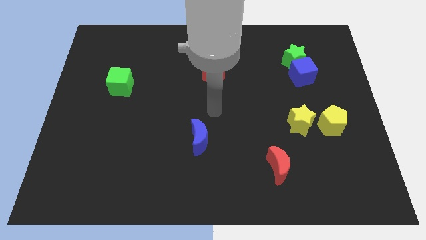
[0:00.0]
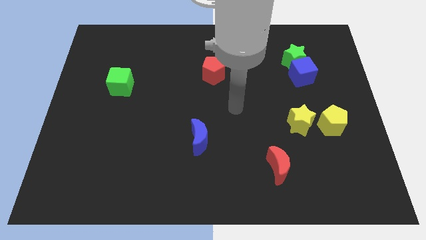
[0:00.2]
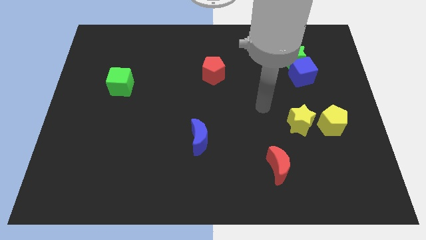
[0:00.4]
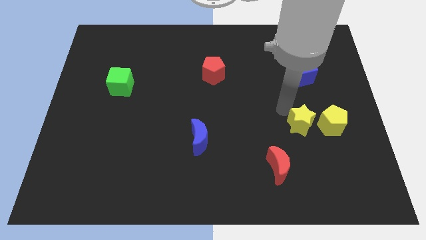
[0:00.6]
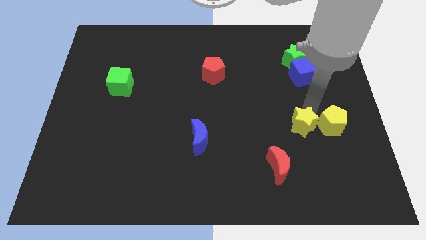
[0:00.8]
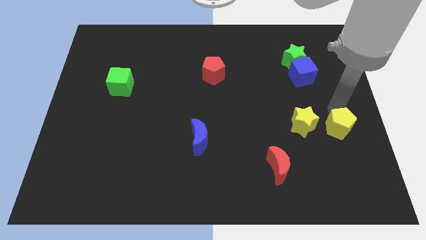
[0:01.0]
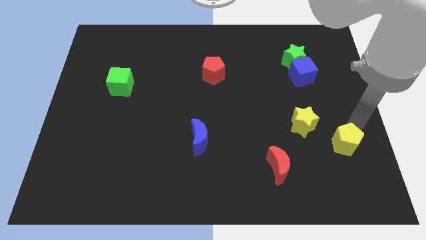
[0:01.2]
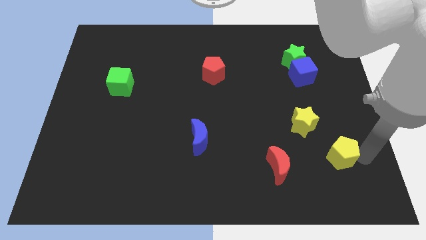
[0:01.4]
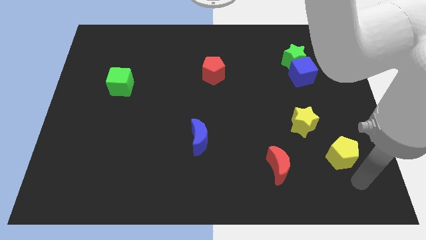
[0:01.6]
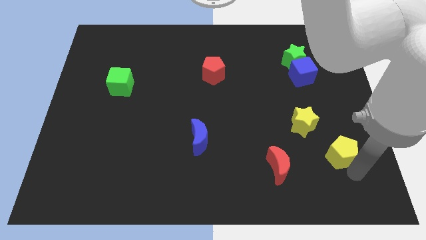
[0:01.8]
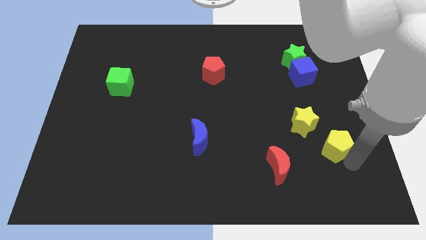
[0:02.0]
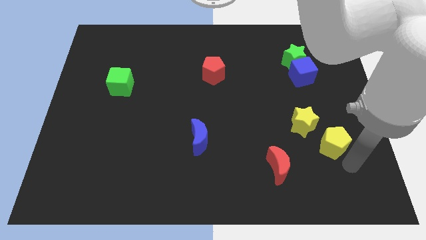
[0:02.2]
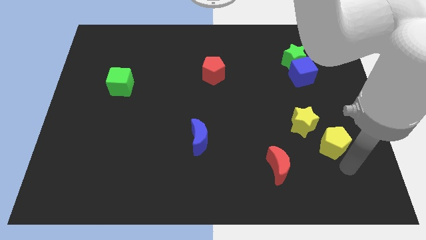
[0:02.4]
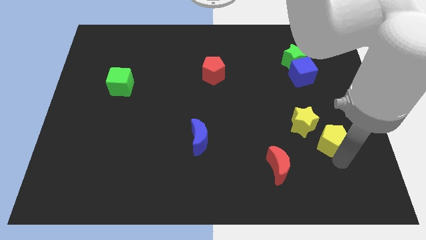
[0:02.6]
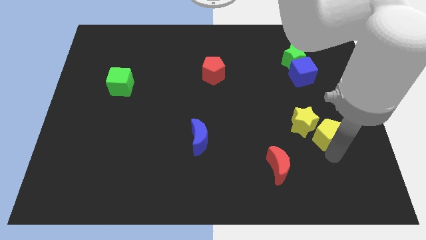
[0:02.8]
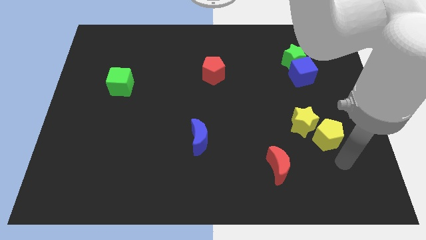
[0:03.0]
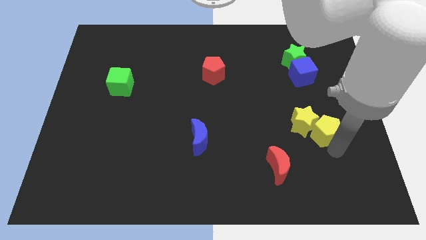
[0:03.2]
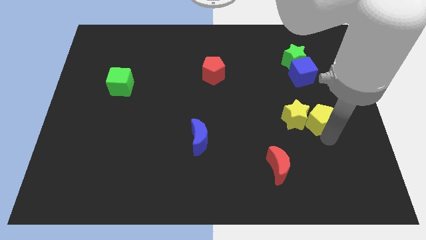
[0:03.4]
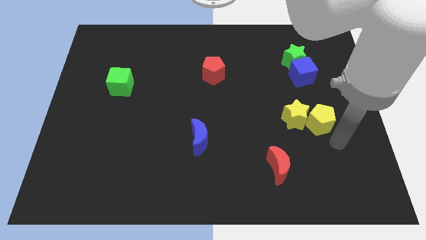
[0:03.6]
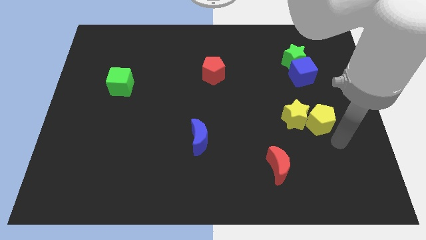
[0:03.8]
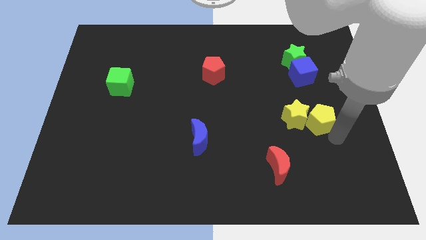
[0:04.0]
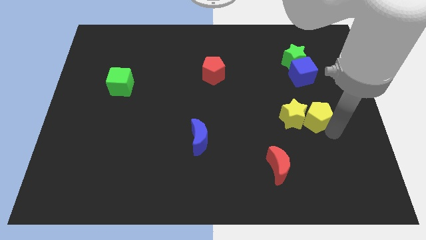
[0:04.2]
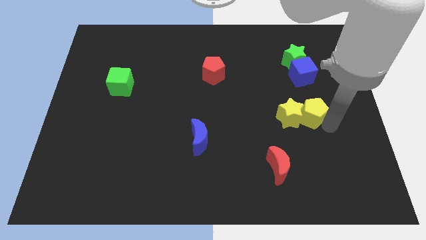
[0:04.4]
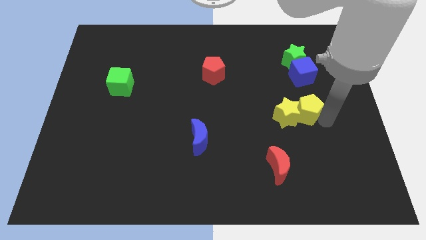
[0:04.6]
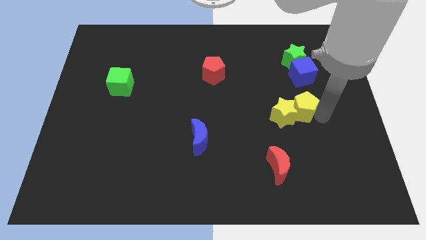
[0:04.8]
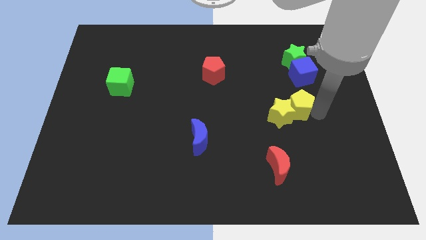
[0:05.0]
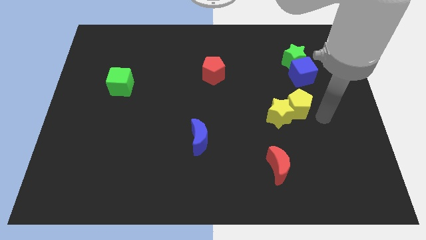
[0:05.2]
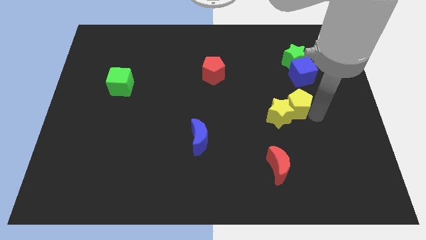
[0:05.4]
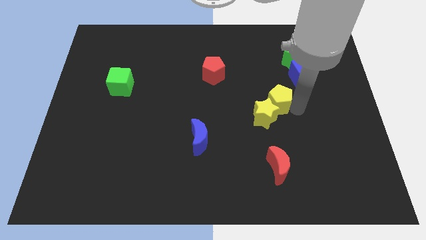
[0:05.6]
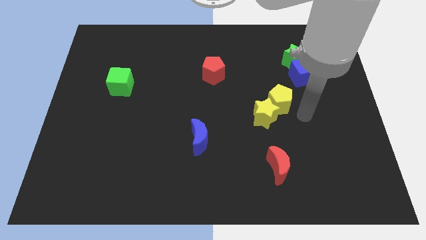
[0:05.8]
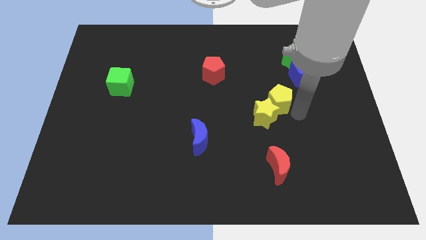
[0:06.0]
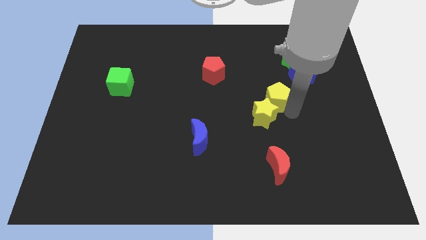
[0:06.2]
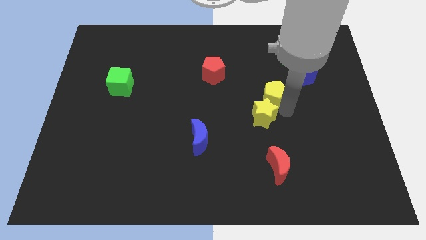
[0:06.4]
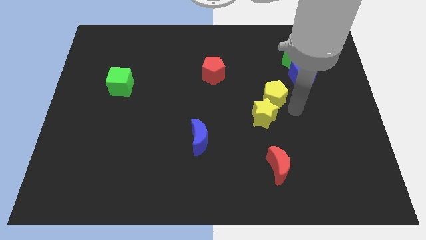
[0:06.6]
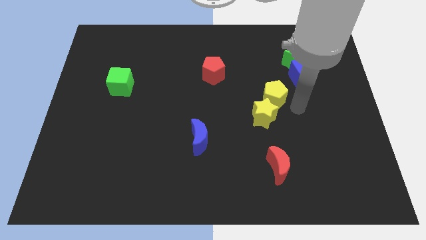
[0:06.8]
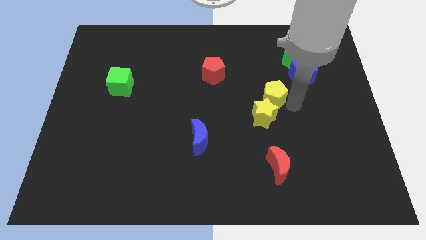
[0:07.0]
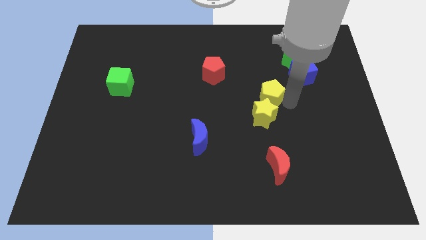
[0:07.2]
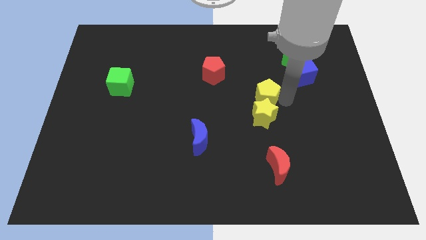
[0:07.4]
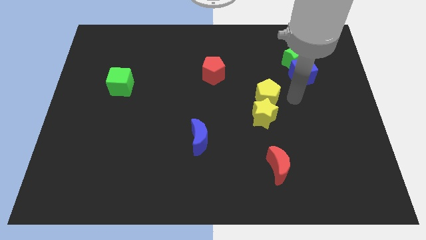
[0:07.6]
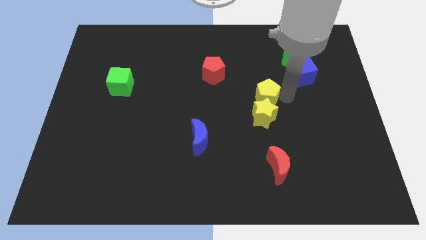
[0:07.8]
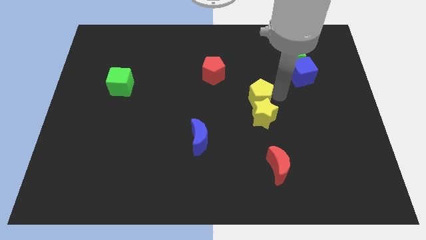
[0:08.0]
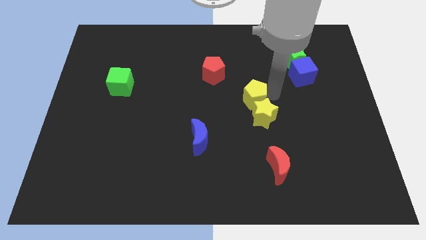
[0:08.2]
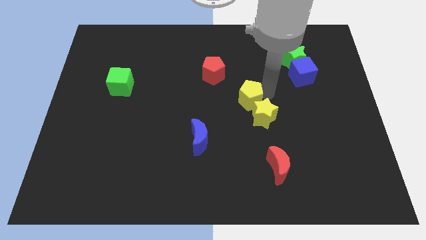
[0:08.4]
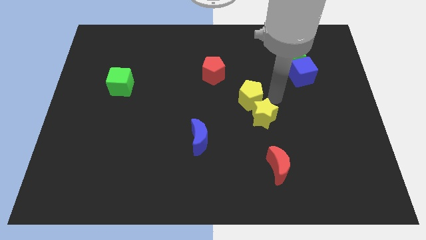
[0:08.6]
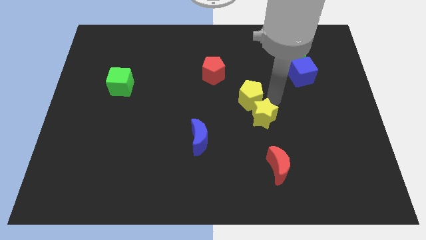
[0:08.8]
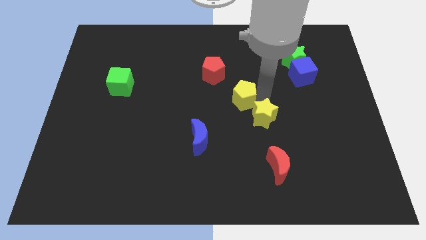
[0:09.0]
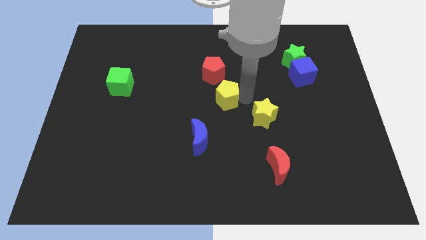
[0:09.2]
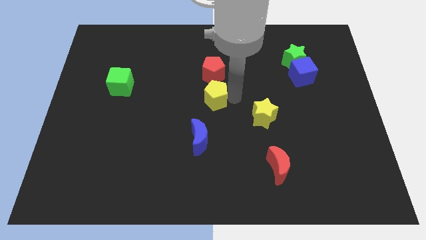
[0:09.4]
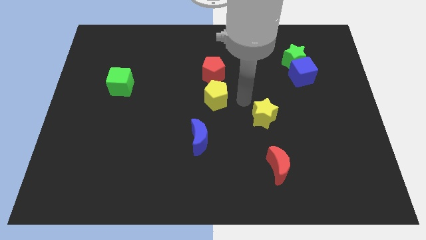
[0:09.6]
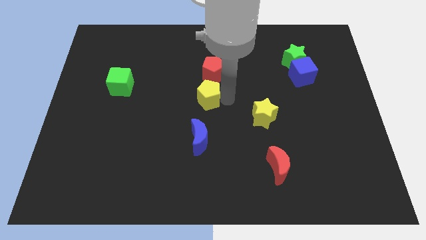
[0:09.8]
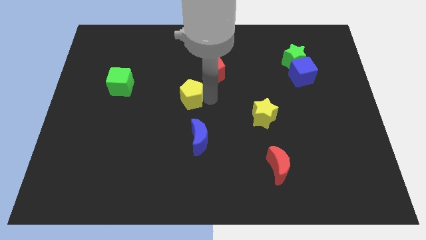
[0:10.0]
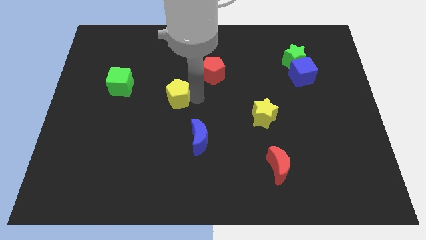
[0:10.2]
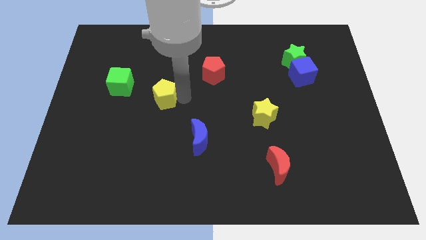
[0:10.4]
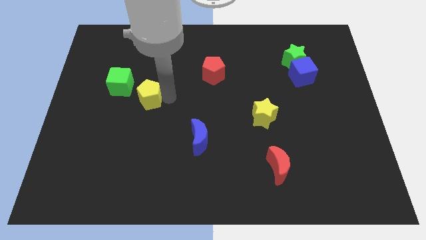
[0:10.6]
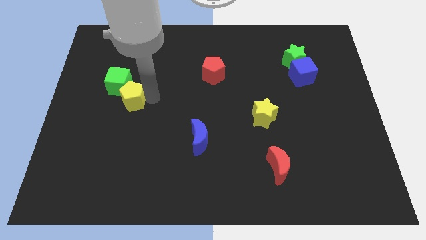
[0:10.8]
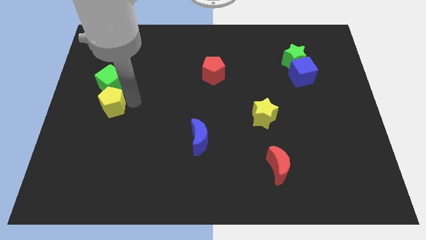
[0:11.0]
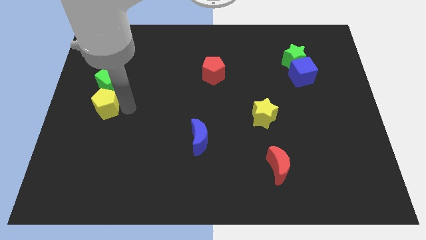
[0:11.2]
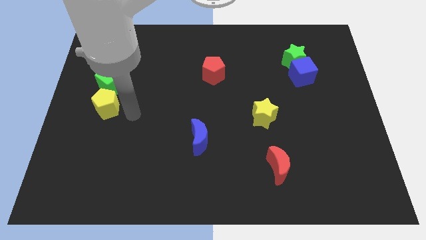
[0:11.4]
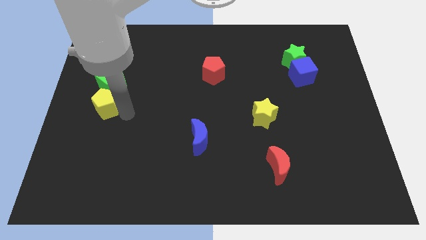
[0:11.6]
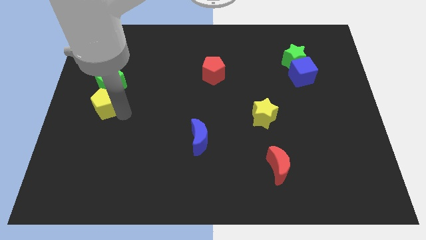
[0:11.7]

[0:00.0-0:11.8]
put the yellow pentagon to the bottom left side of the green cube
